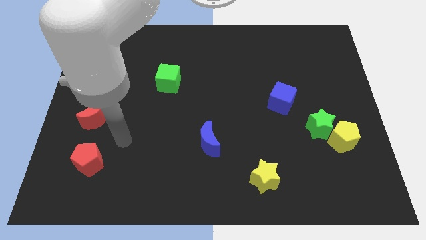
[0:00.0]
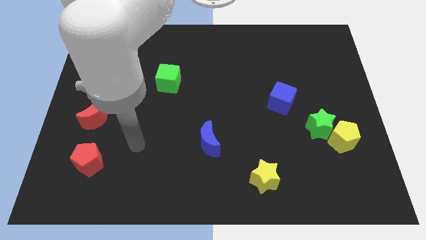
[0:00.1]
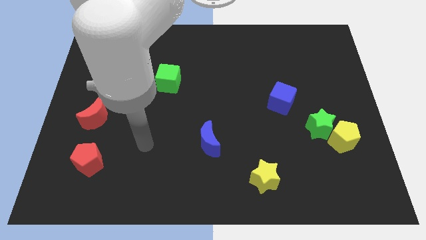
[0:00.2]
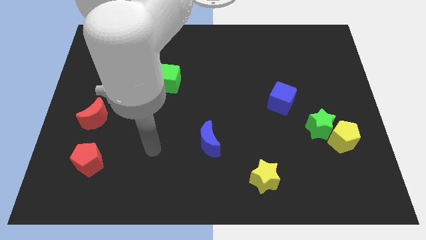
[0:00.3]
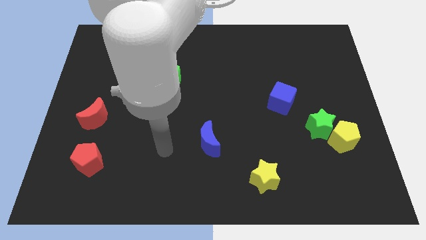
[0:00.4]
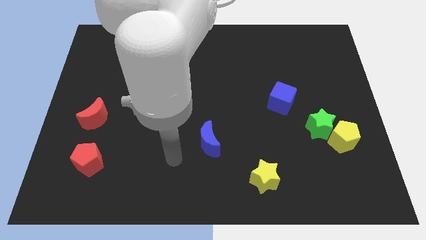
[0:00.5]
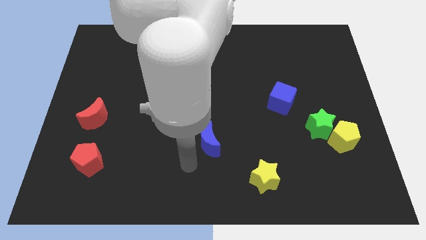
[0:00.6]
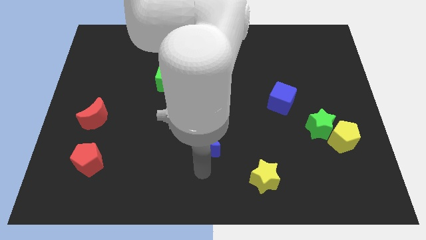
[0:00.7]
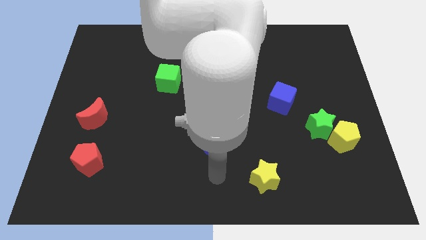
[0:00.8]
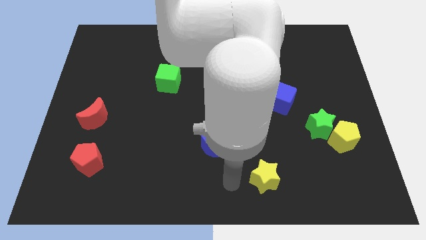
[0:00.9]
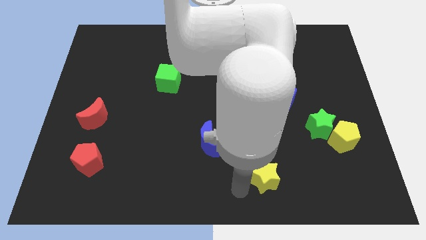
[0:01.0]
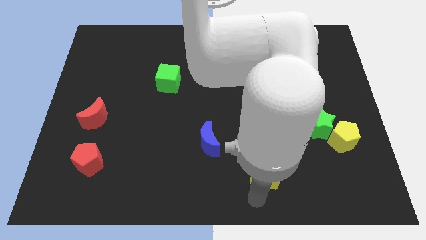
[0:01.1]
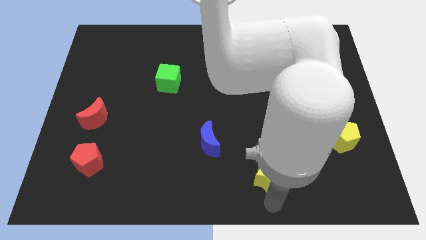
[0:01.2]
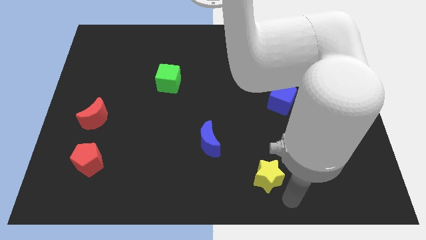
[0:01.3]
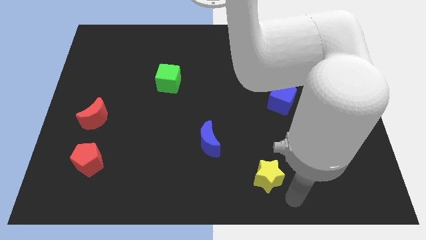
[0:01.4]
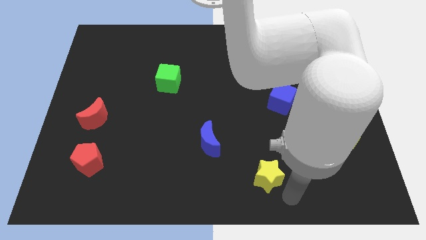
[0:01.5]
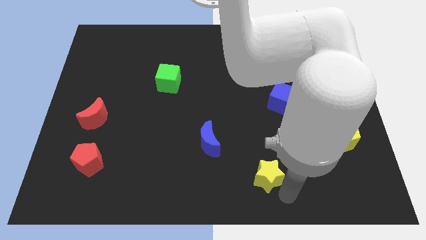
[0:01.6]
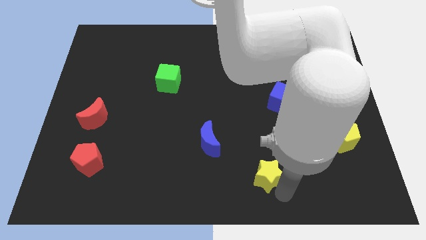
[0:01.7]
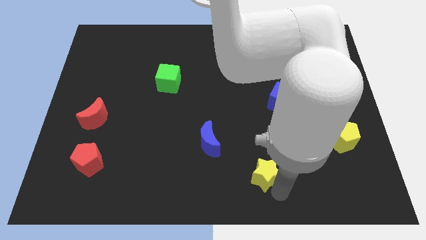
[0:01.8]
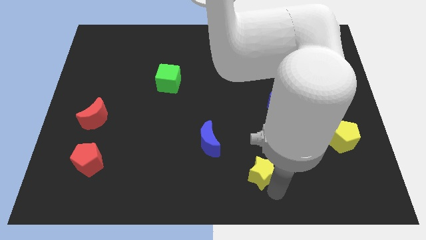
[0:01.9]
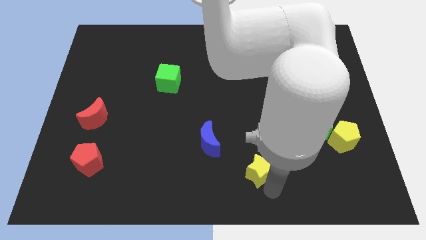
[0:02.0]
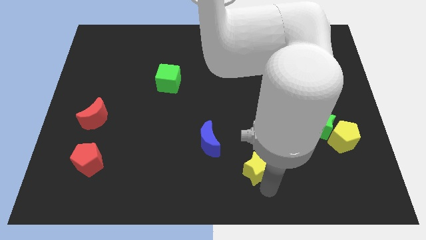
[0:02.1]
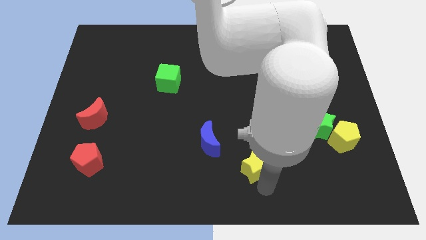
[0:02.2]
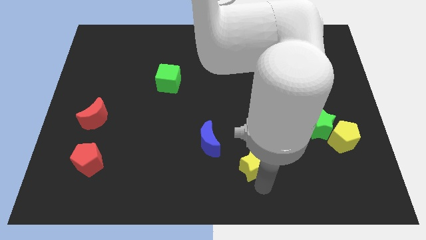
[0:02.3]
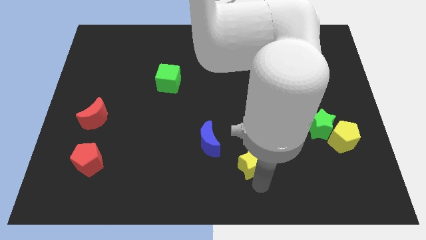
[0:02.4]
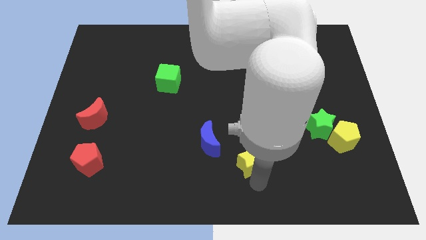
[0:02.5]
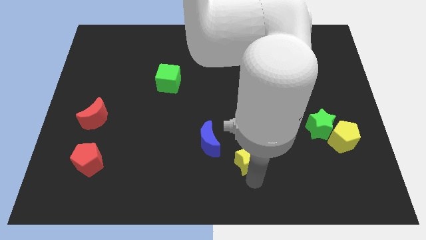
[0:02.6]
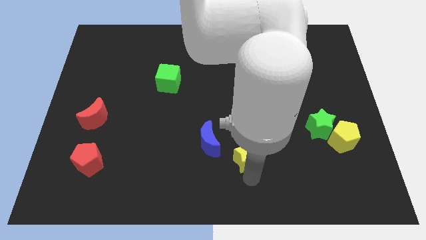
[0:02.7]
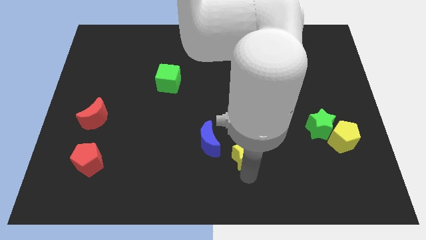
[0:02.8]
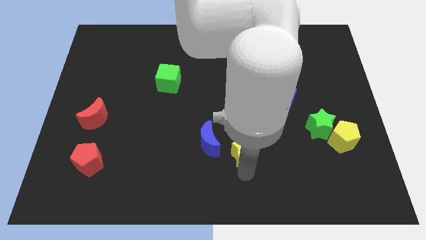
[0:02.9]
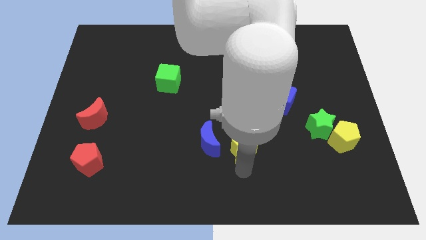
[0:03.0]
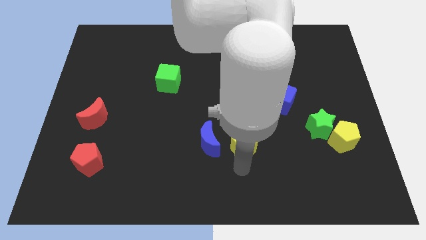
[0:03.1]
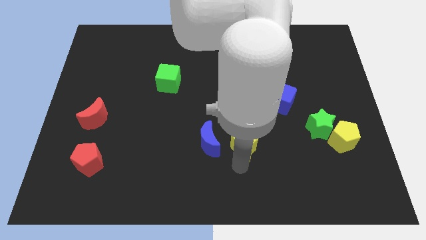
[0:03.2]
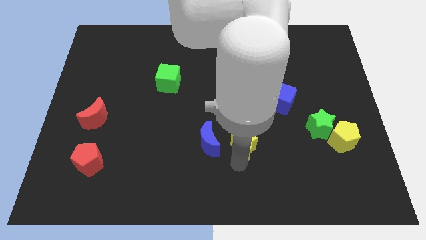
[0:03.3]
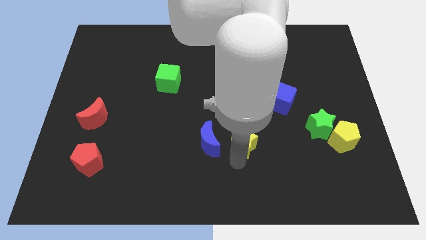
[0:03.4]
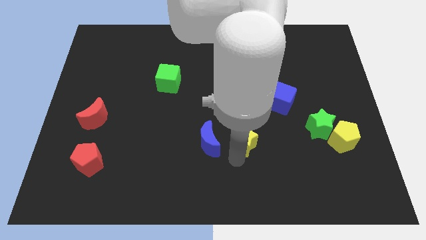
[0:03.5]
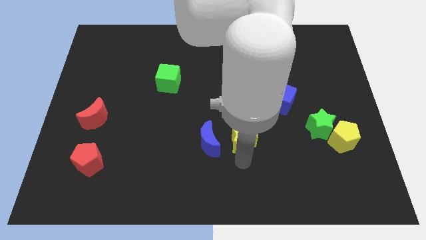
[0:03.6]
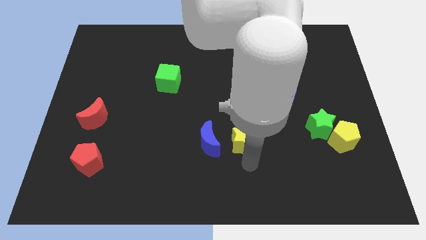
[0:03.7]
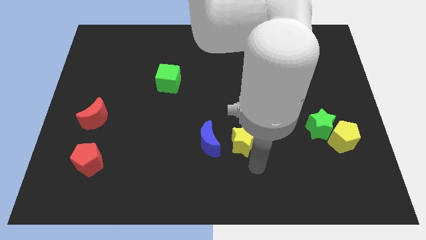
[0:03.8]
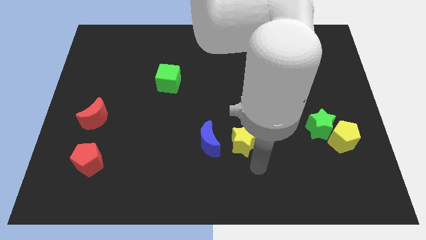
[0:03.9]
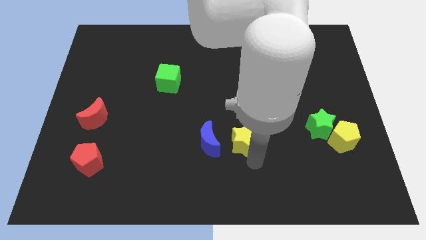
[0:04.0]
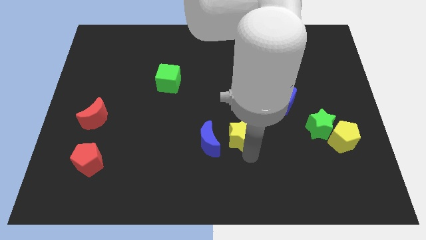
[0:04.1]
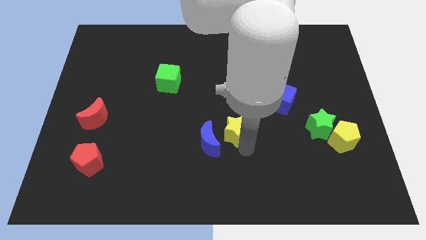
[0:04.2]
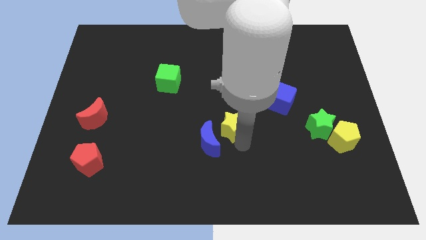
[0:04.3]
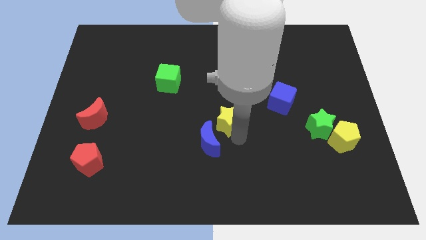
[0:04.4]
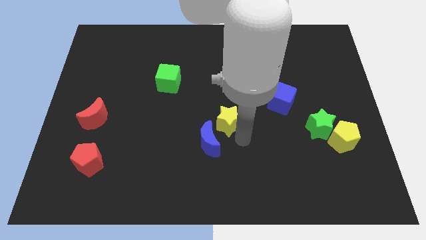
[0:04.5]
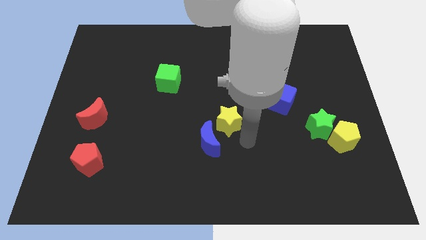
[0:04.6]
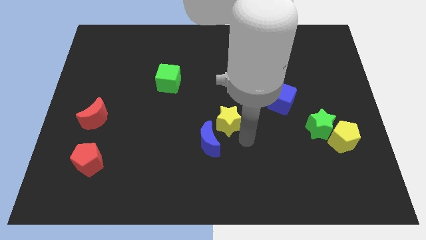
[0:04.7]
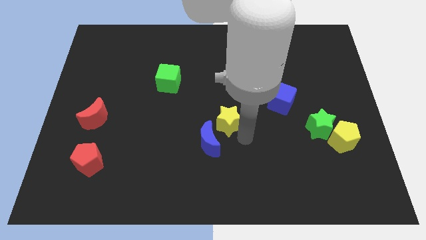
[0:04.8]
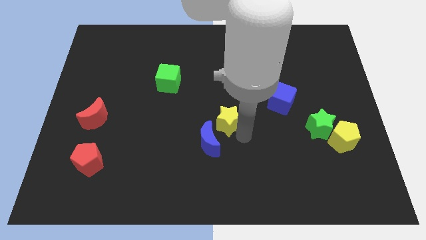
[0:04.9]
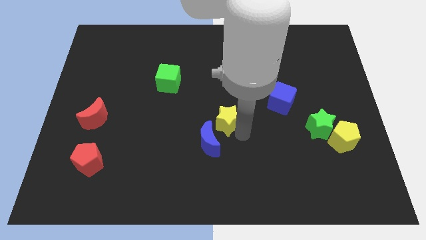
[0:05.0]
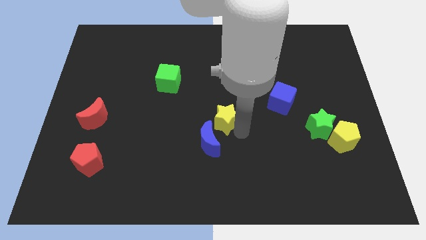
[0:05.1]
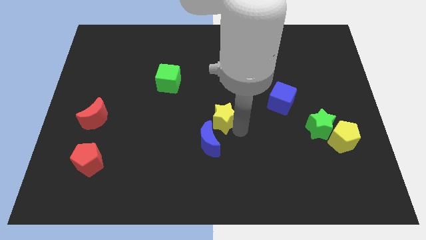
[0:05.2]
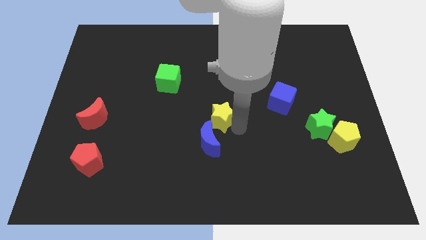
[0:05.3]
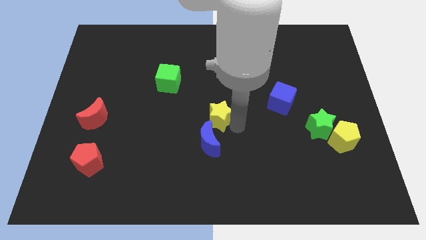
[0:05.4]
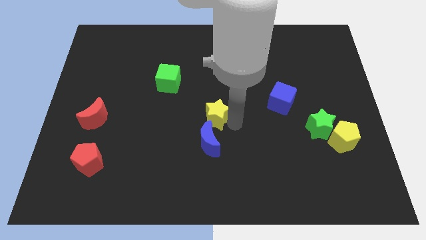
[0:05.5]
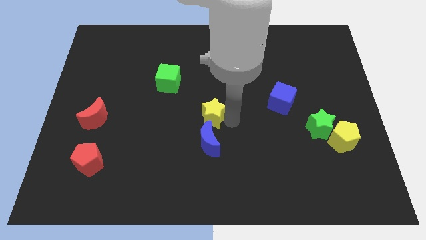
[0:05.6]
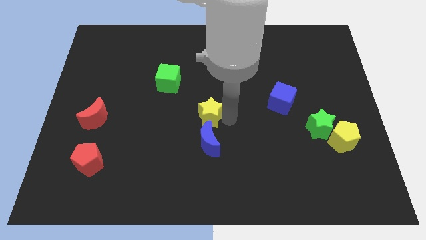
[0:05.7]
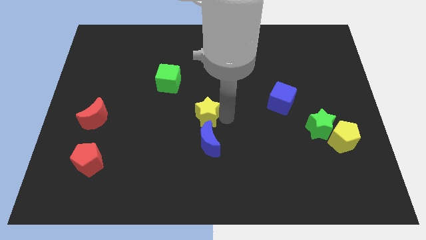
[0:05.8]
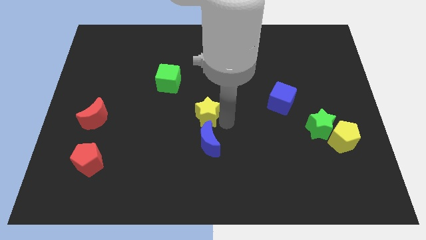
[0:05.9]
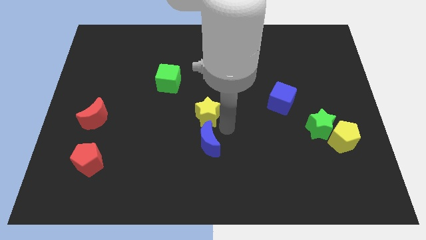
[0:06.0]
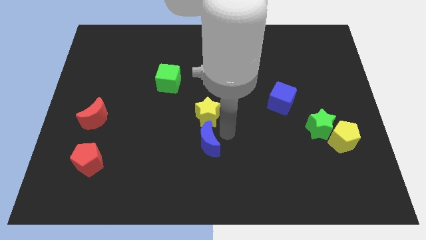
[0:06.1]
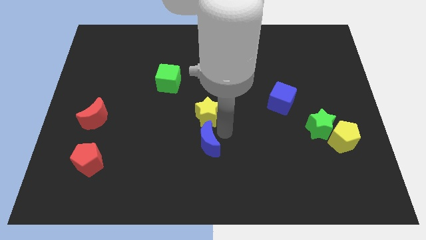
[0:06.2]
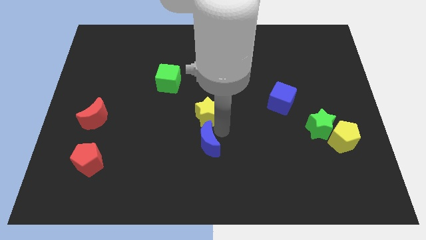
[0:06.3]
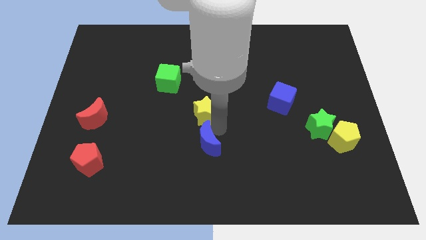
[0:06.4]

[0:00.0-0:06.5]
push the yellow star upwards and to the left

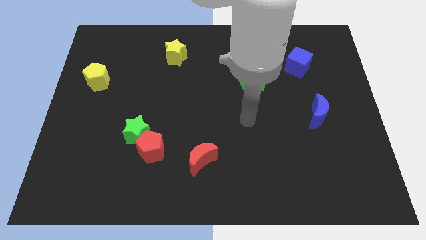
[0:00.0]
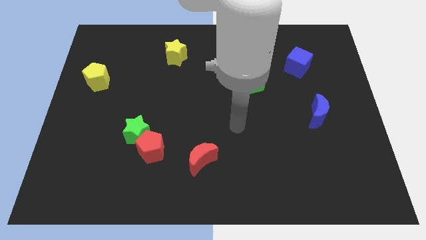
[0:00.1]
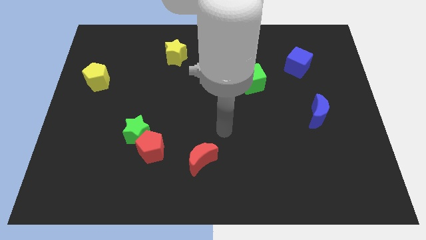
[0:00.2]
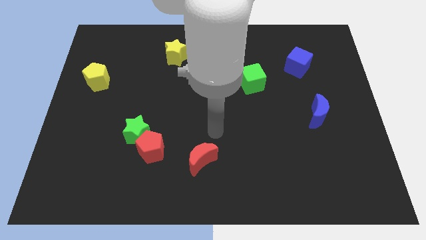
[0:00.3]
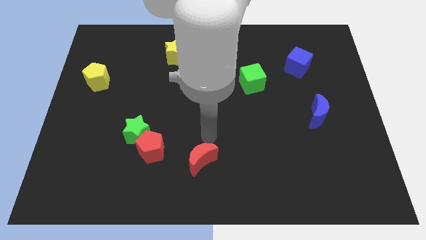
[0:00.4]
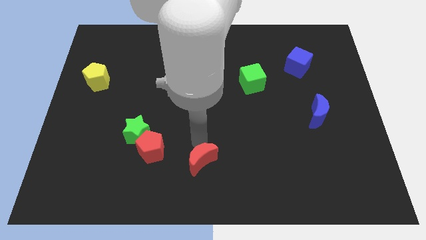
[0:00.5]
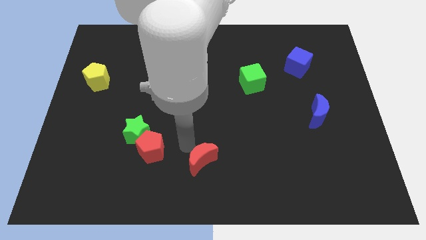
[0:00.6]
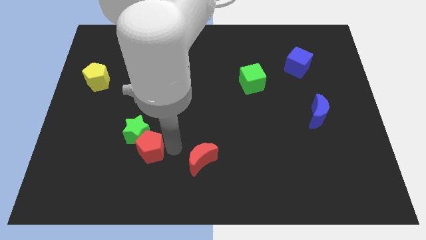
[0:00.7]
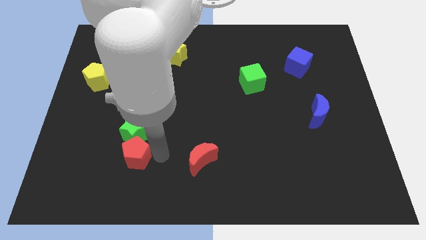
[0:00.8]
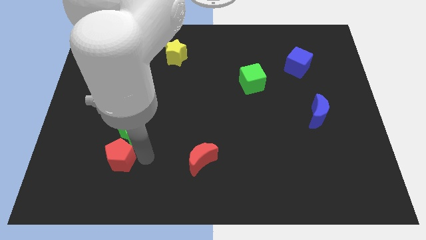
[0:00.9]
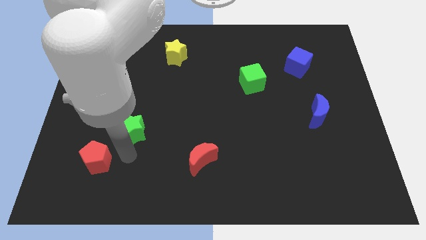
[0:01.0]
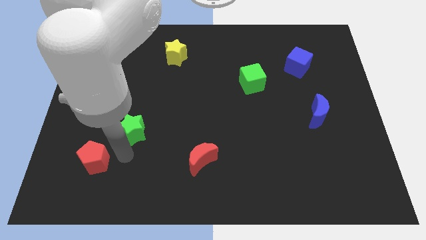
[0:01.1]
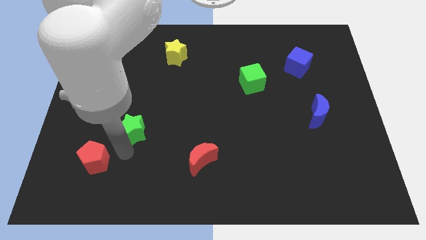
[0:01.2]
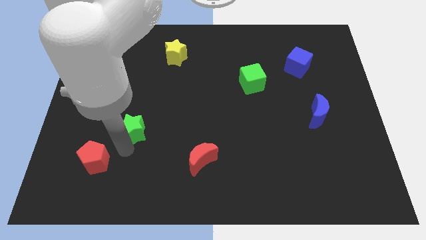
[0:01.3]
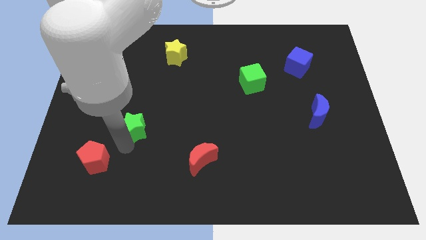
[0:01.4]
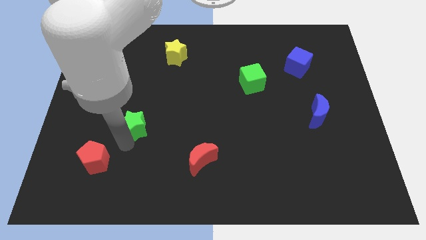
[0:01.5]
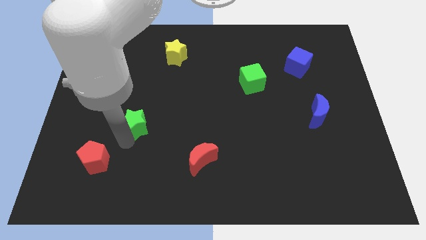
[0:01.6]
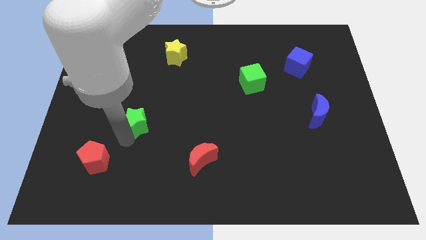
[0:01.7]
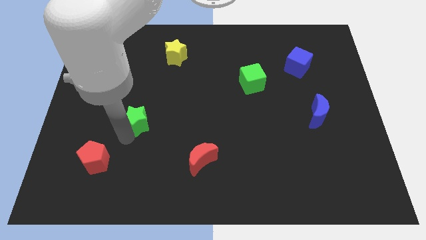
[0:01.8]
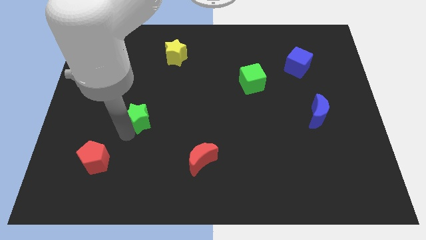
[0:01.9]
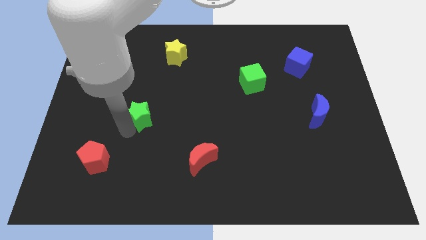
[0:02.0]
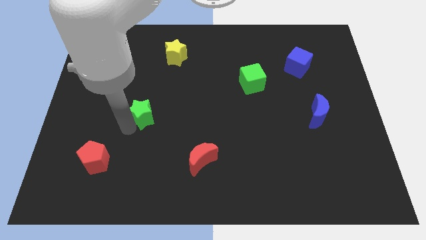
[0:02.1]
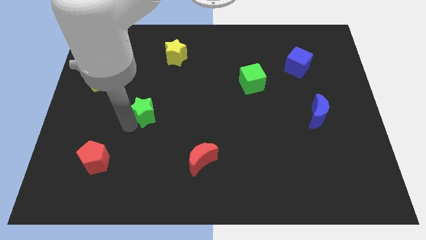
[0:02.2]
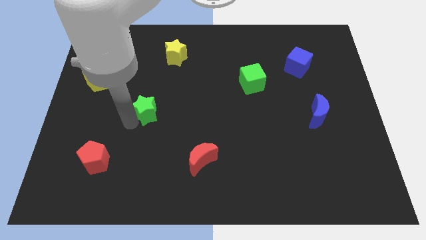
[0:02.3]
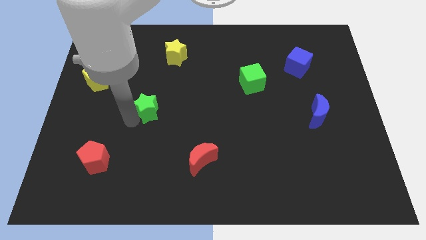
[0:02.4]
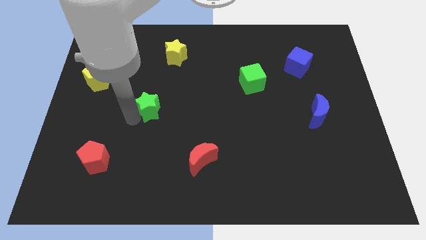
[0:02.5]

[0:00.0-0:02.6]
move the green star upwards a little
